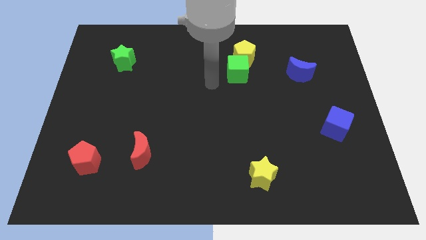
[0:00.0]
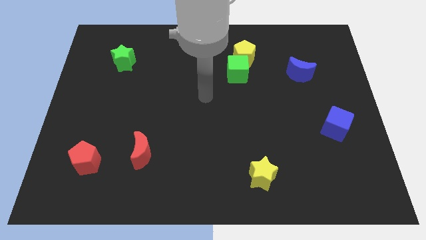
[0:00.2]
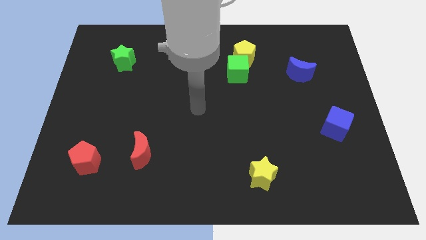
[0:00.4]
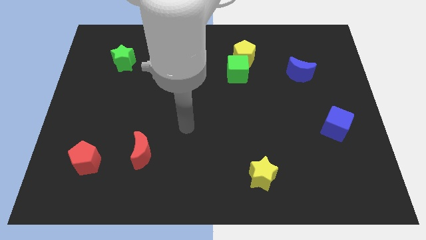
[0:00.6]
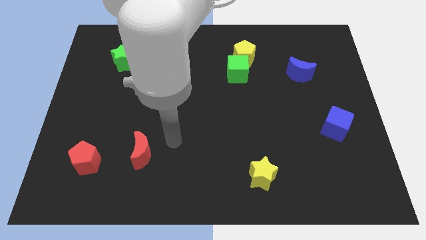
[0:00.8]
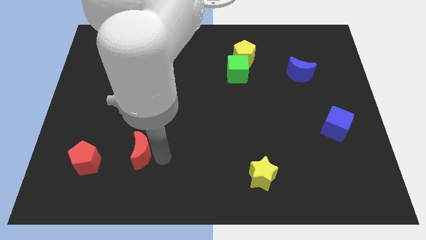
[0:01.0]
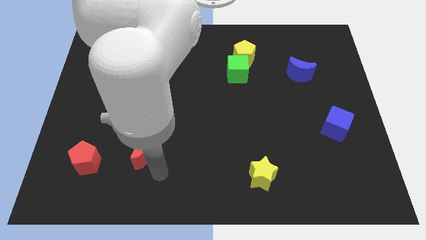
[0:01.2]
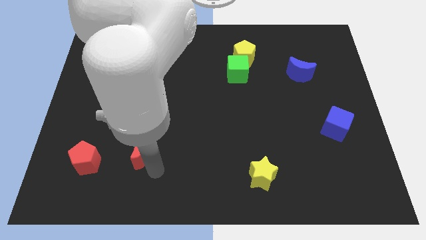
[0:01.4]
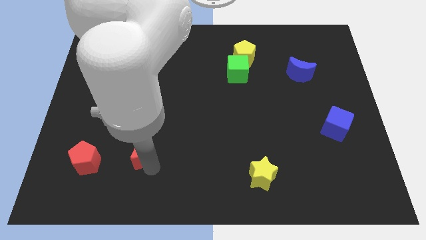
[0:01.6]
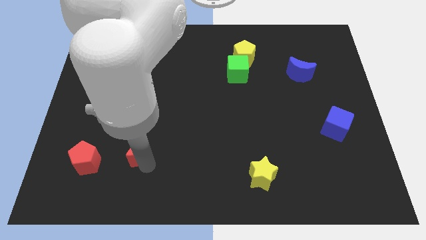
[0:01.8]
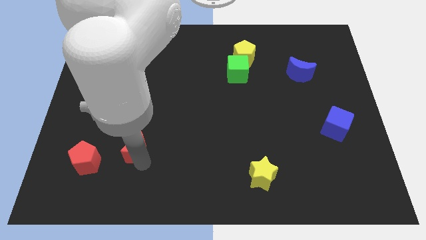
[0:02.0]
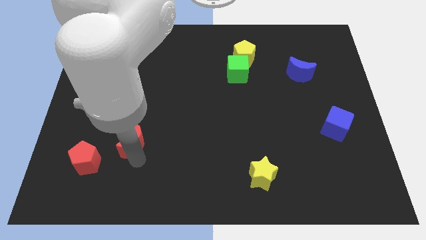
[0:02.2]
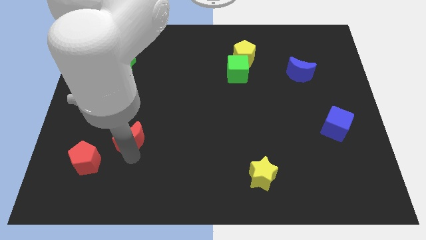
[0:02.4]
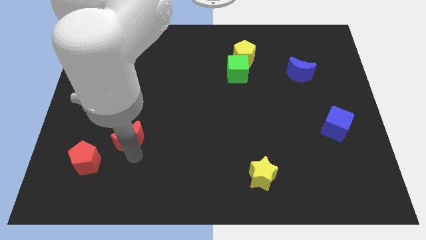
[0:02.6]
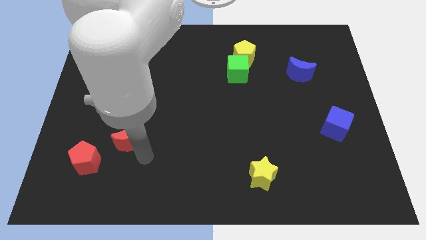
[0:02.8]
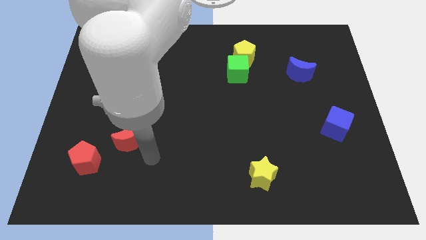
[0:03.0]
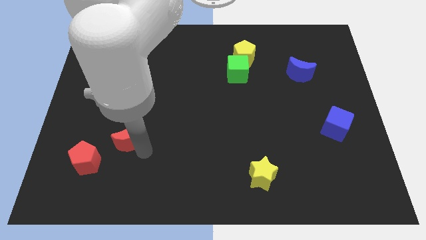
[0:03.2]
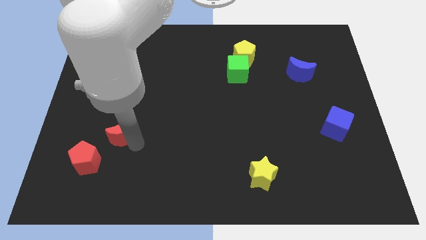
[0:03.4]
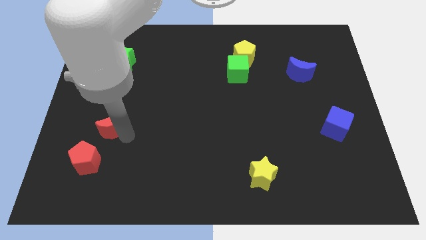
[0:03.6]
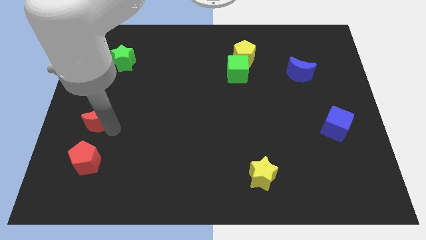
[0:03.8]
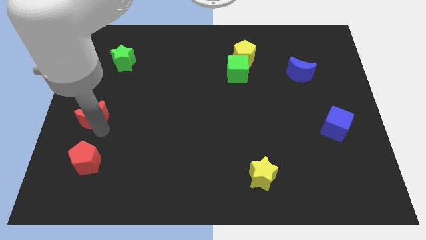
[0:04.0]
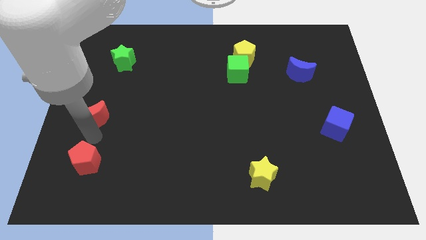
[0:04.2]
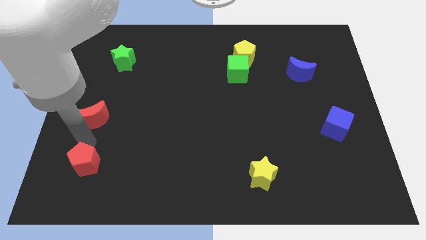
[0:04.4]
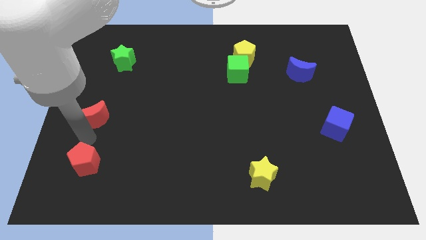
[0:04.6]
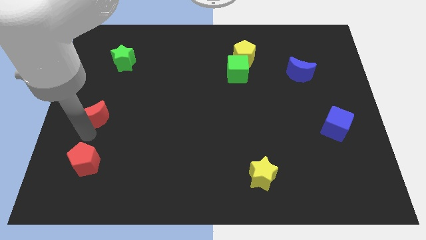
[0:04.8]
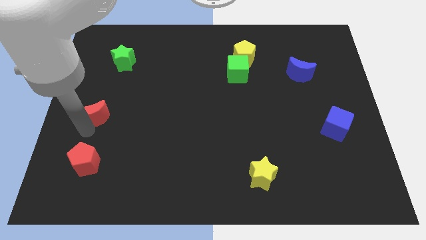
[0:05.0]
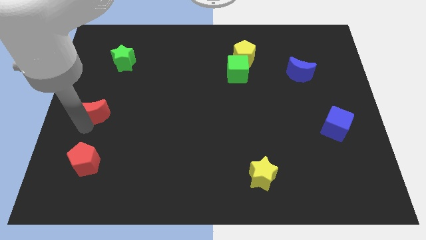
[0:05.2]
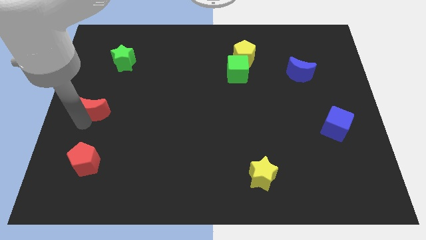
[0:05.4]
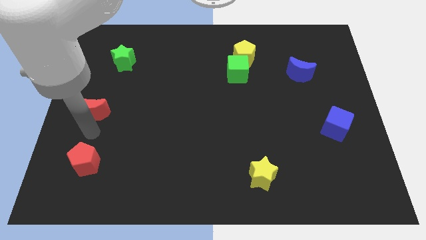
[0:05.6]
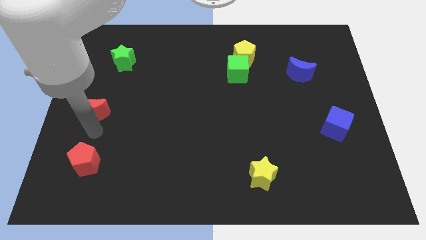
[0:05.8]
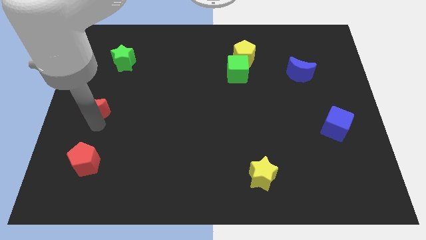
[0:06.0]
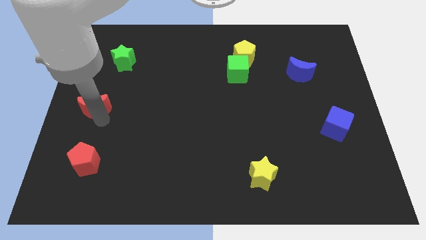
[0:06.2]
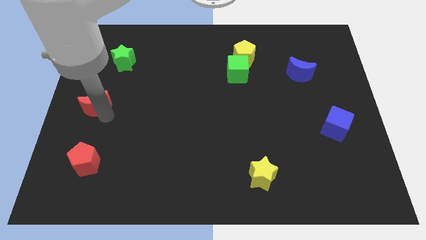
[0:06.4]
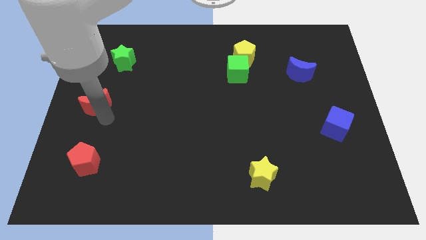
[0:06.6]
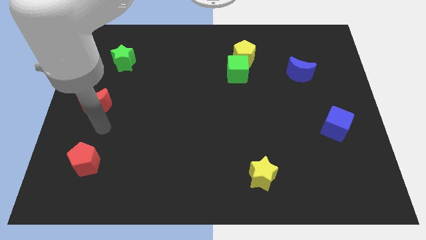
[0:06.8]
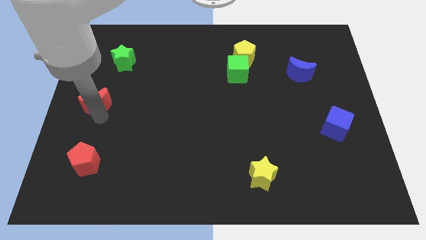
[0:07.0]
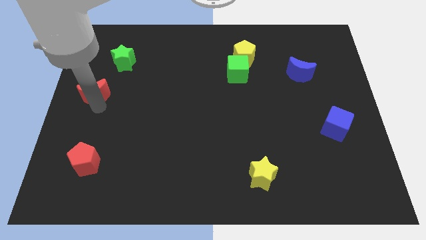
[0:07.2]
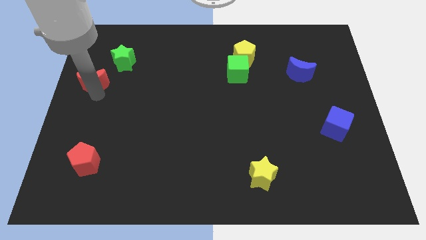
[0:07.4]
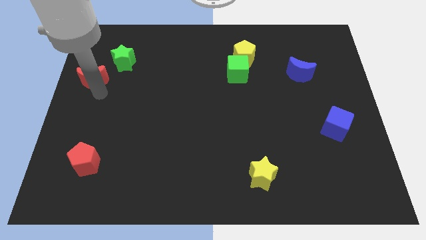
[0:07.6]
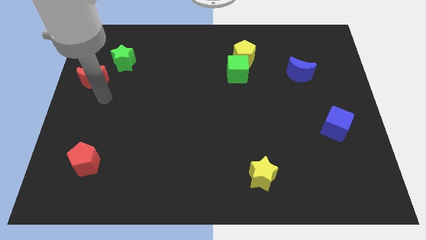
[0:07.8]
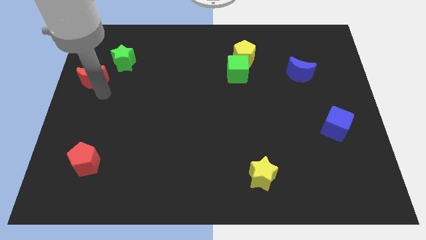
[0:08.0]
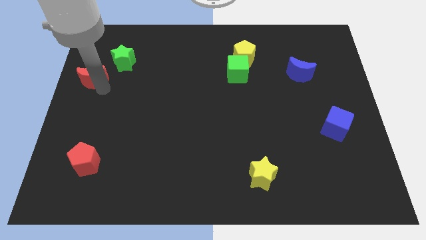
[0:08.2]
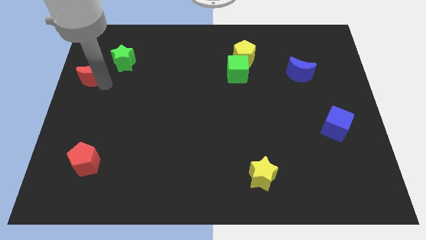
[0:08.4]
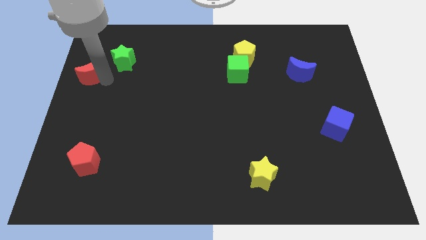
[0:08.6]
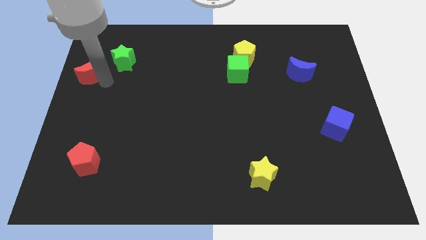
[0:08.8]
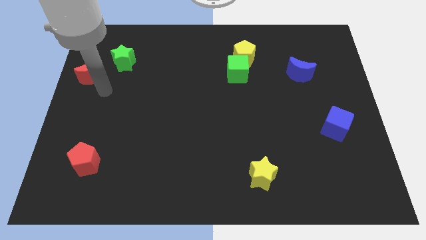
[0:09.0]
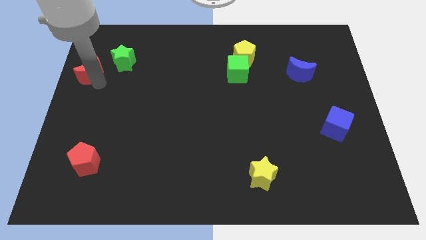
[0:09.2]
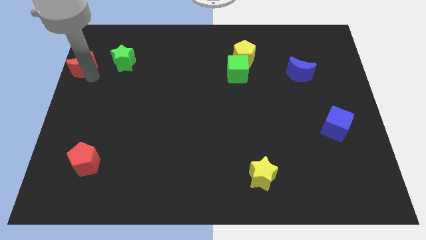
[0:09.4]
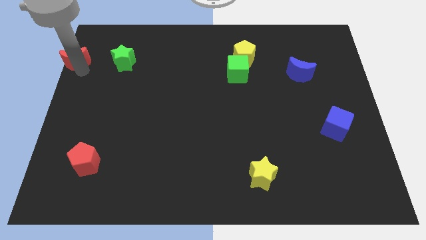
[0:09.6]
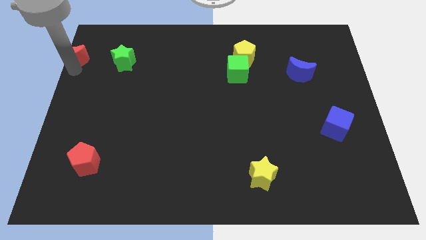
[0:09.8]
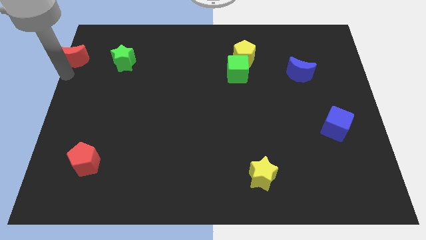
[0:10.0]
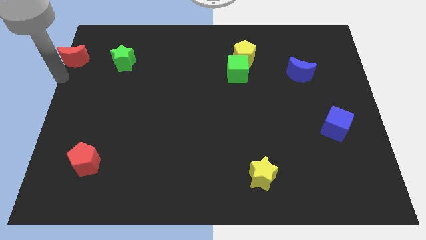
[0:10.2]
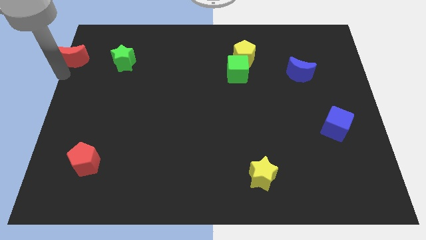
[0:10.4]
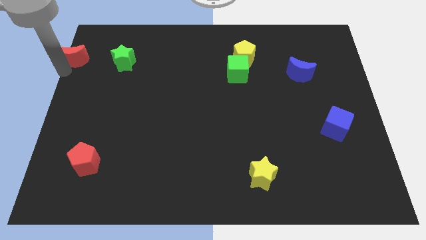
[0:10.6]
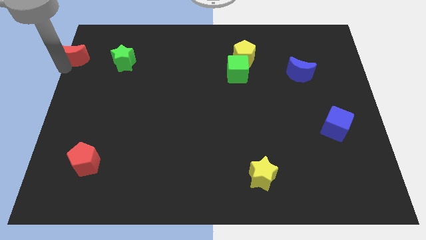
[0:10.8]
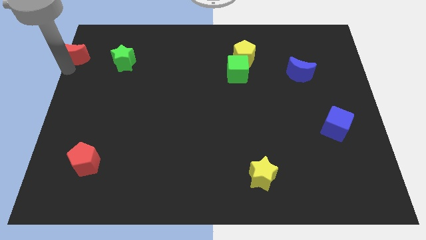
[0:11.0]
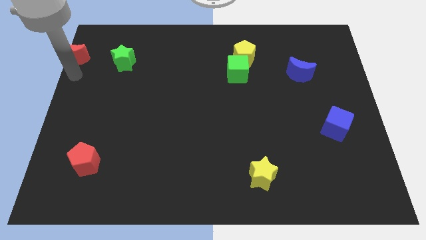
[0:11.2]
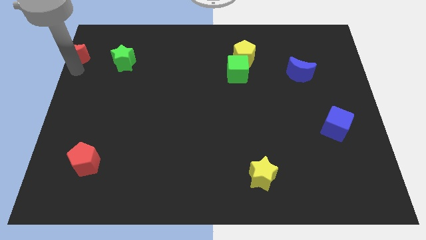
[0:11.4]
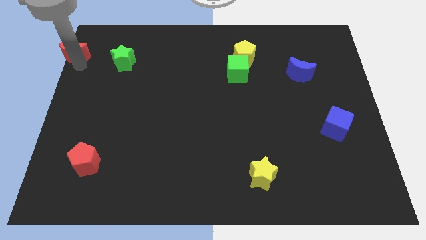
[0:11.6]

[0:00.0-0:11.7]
put the red moon to the top left
